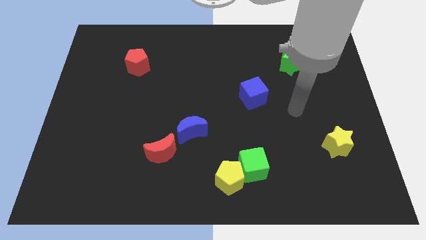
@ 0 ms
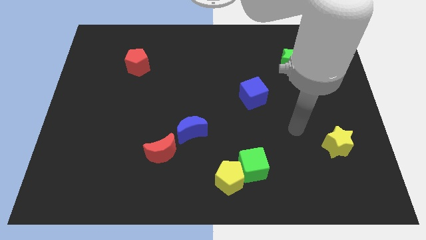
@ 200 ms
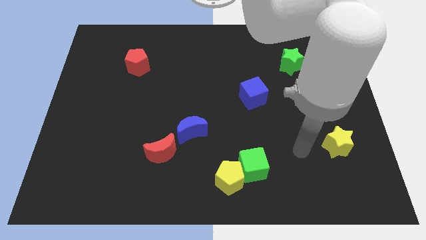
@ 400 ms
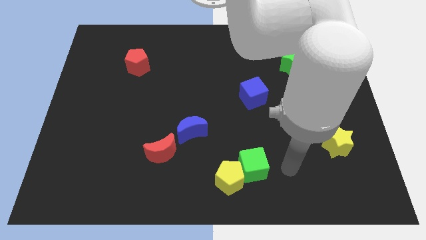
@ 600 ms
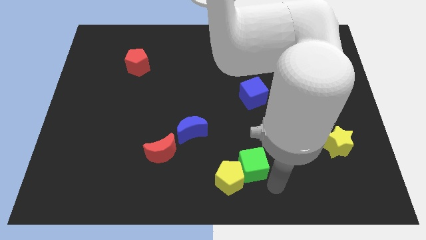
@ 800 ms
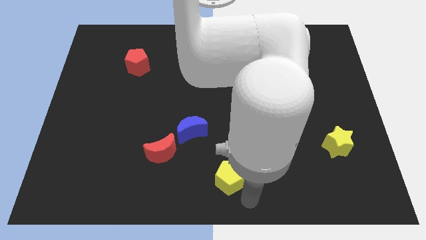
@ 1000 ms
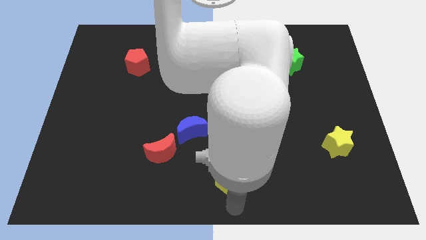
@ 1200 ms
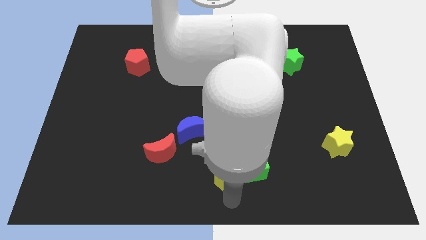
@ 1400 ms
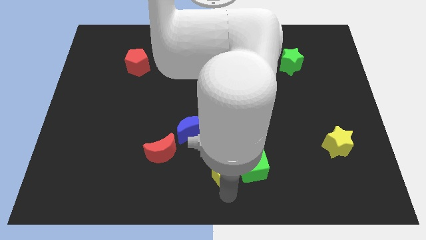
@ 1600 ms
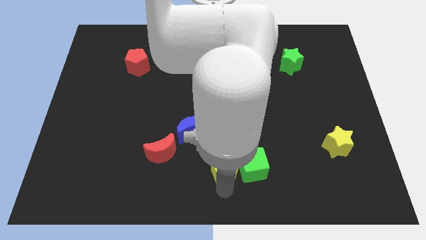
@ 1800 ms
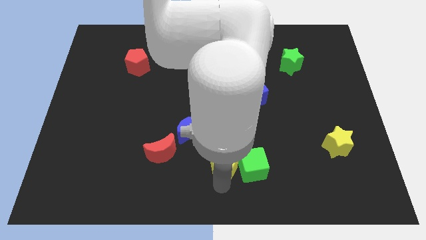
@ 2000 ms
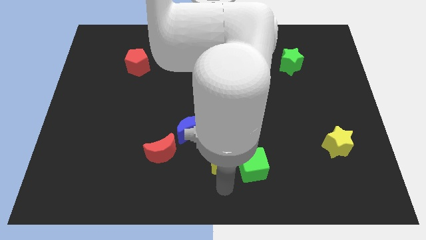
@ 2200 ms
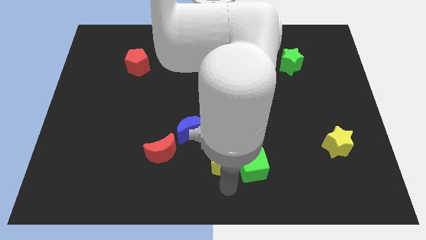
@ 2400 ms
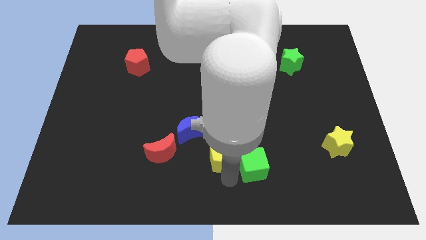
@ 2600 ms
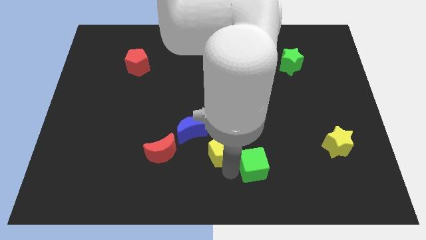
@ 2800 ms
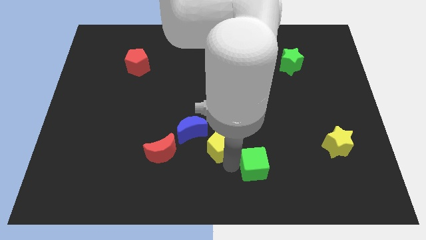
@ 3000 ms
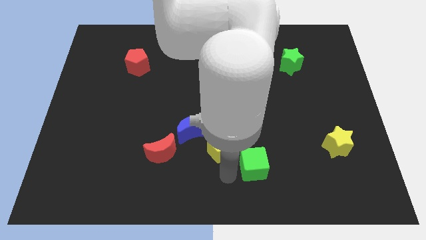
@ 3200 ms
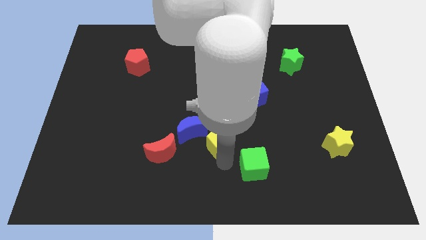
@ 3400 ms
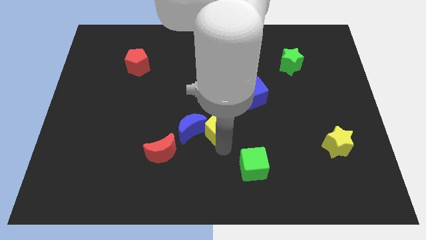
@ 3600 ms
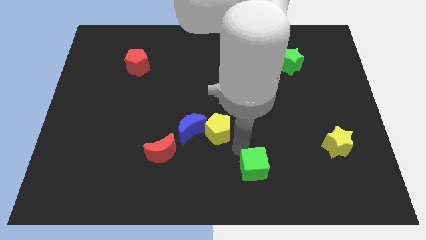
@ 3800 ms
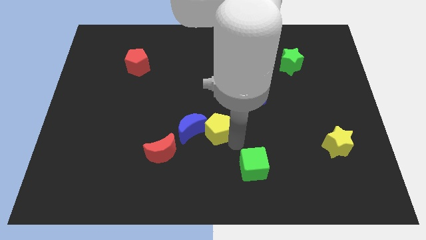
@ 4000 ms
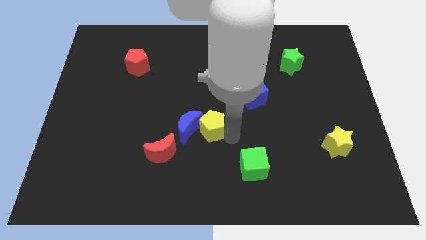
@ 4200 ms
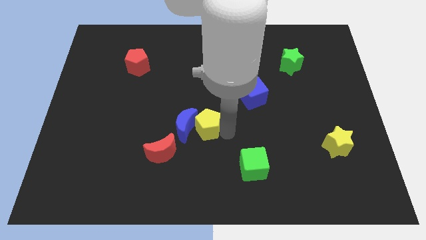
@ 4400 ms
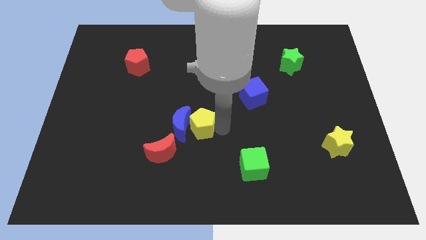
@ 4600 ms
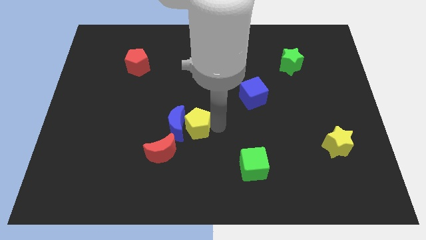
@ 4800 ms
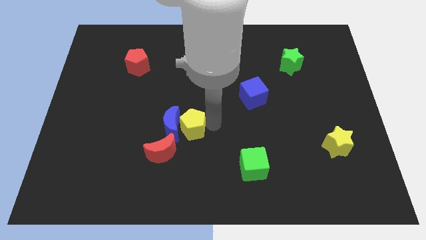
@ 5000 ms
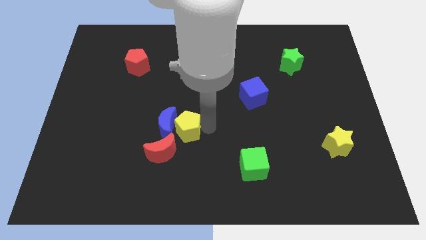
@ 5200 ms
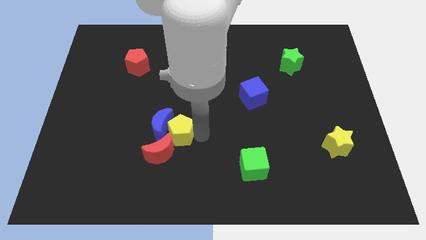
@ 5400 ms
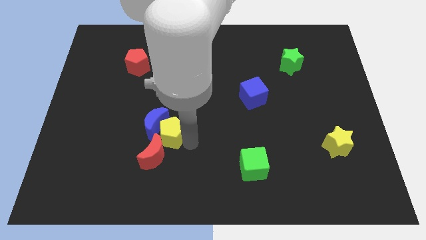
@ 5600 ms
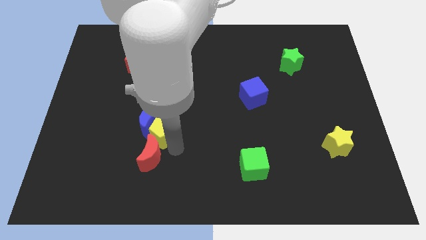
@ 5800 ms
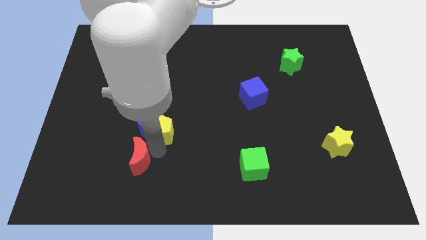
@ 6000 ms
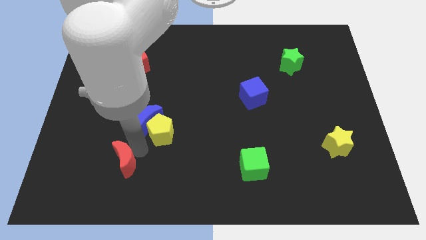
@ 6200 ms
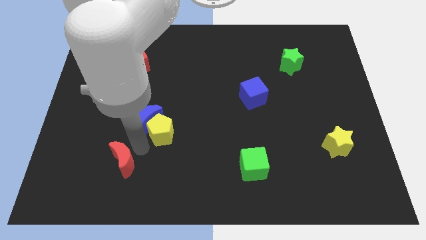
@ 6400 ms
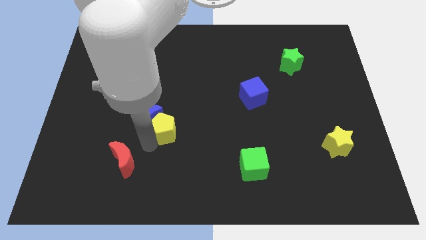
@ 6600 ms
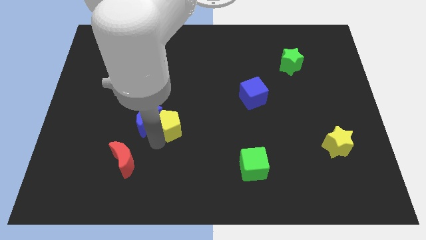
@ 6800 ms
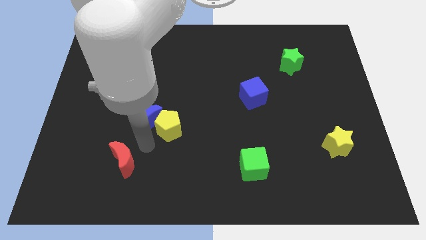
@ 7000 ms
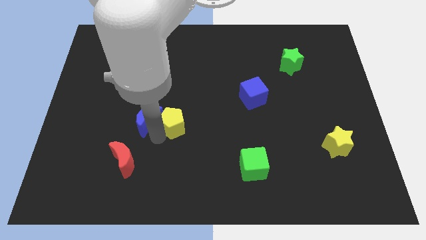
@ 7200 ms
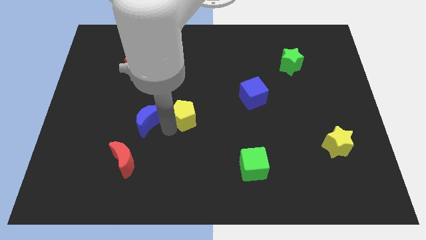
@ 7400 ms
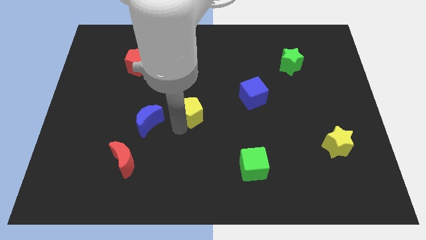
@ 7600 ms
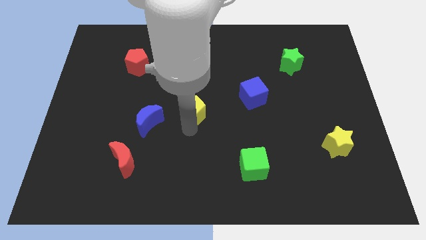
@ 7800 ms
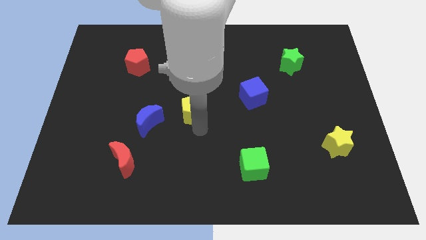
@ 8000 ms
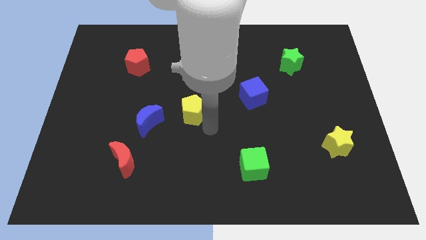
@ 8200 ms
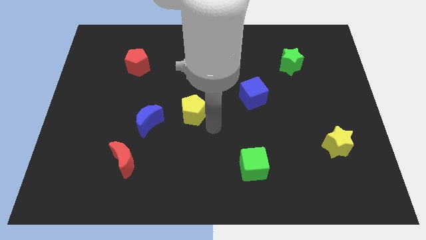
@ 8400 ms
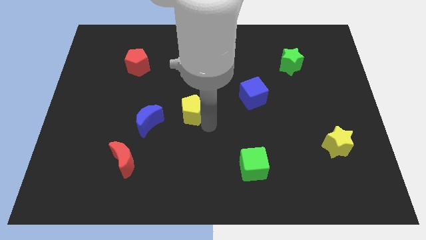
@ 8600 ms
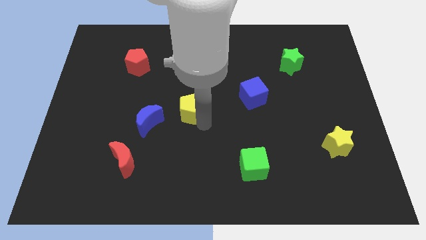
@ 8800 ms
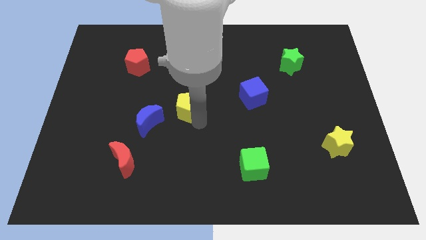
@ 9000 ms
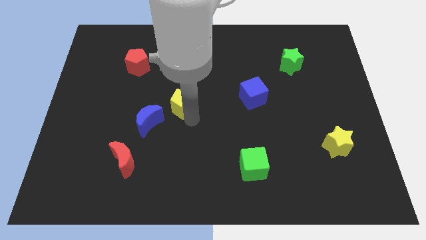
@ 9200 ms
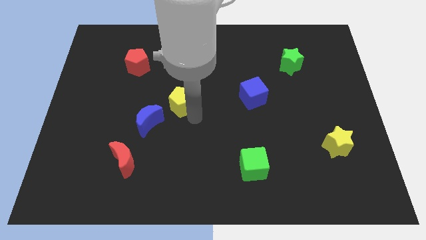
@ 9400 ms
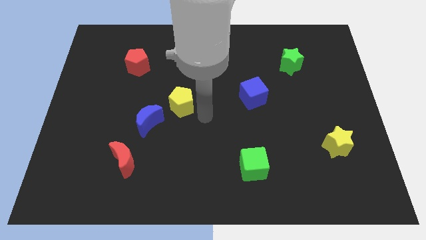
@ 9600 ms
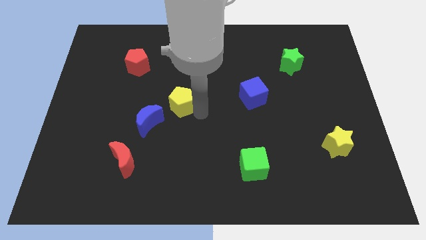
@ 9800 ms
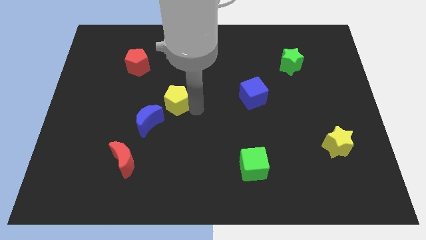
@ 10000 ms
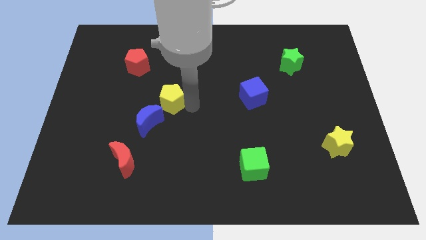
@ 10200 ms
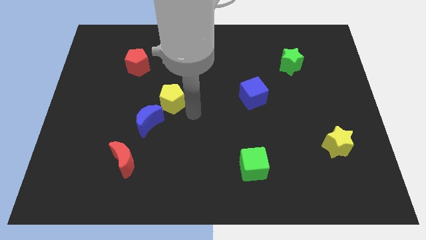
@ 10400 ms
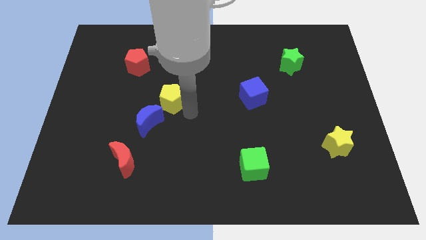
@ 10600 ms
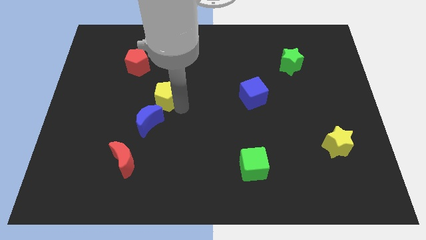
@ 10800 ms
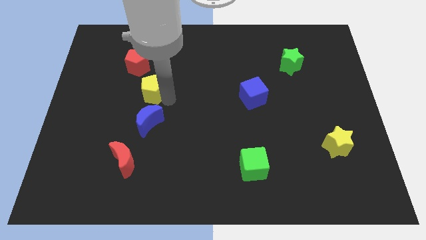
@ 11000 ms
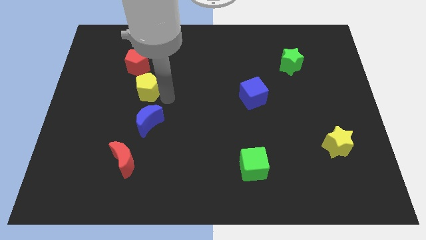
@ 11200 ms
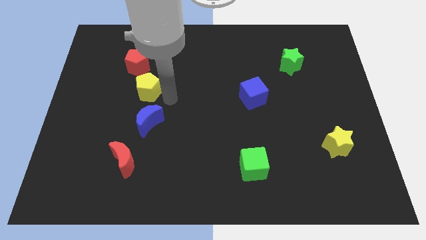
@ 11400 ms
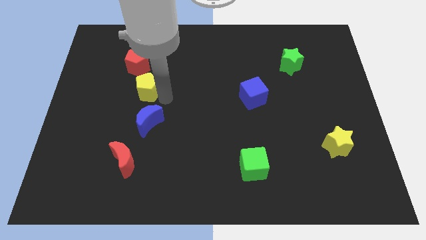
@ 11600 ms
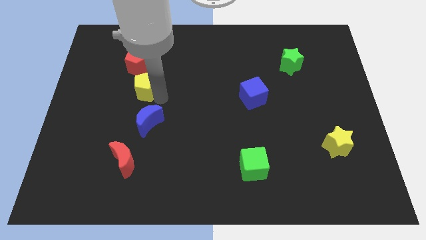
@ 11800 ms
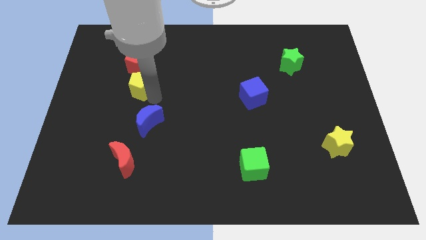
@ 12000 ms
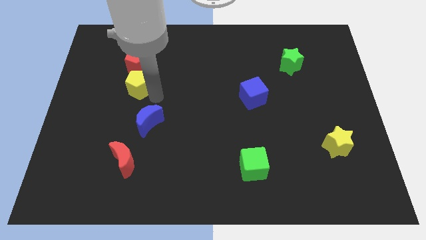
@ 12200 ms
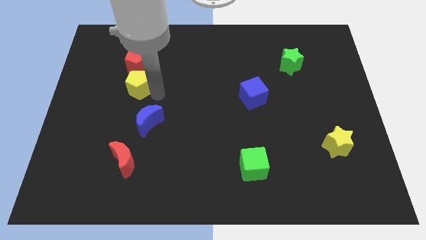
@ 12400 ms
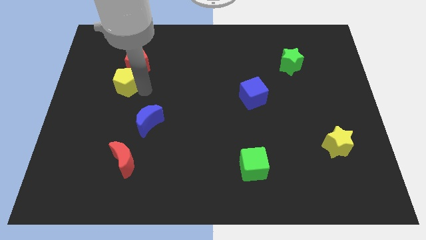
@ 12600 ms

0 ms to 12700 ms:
push the yellow pentagon to the bottom left of the red pentagon
